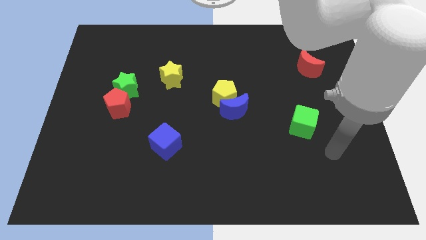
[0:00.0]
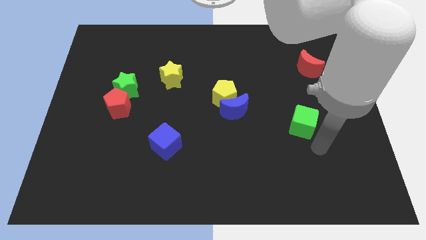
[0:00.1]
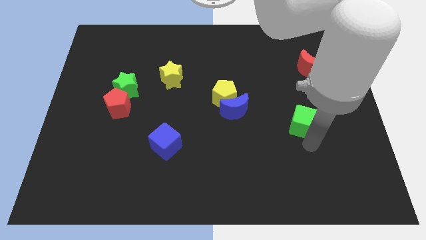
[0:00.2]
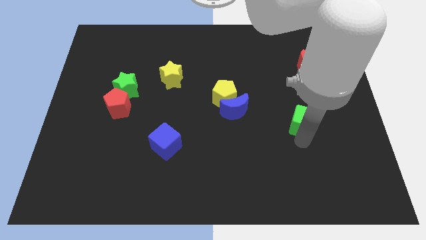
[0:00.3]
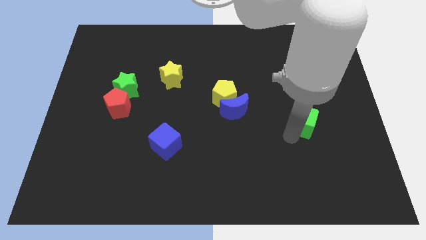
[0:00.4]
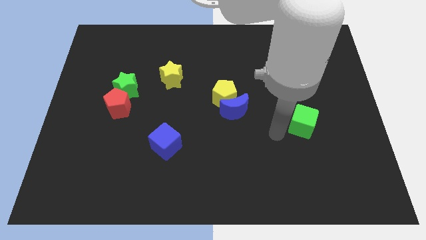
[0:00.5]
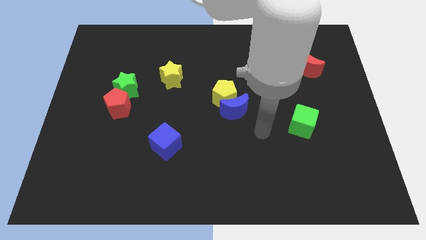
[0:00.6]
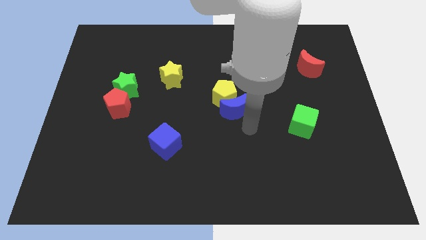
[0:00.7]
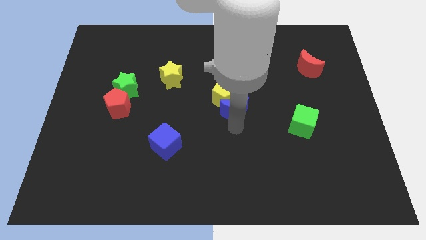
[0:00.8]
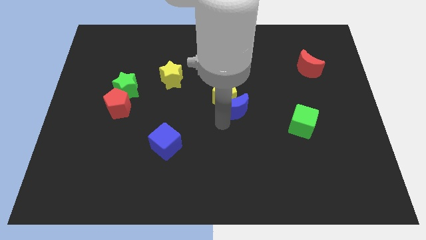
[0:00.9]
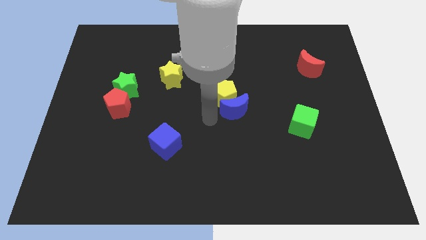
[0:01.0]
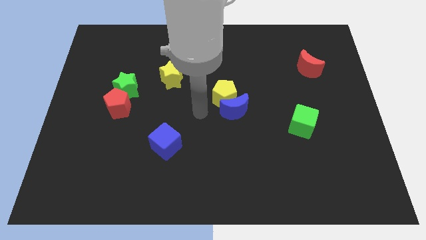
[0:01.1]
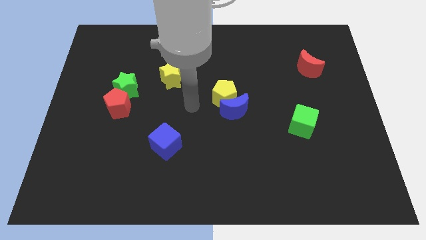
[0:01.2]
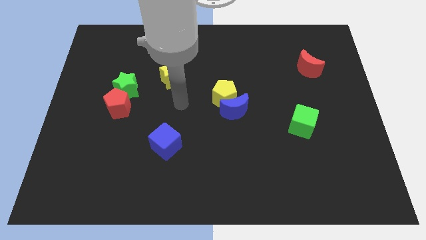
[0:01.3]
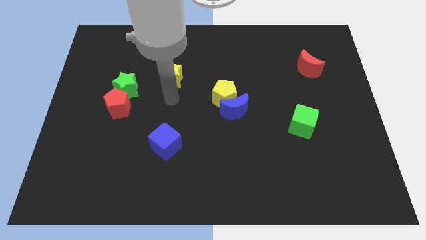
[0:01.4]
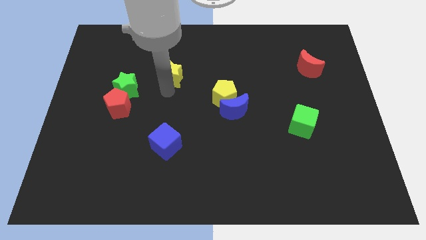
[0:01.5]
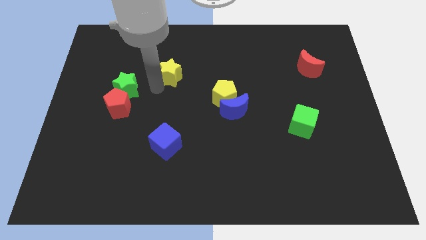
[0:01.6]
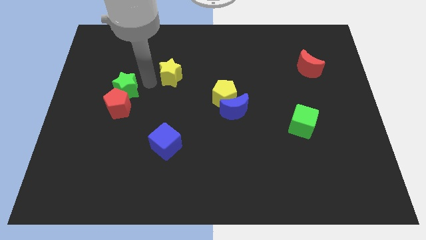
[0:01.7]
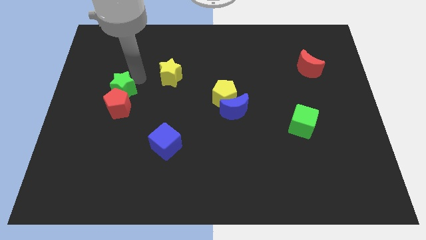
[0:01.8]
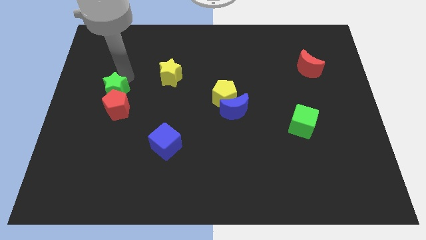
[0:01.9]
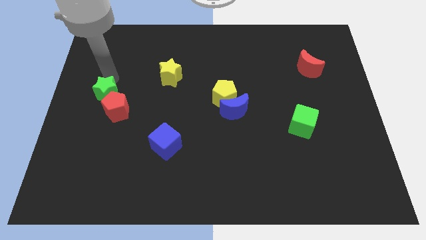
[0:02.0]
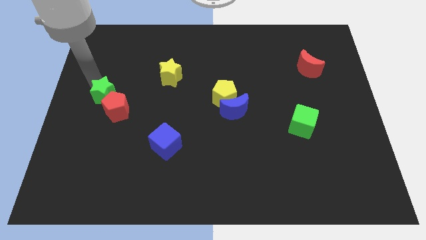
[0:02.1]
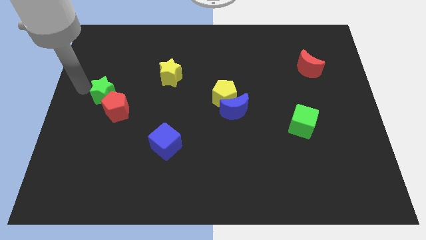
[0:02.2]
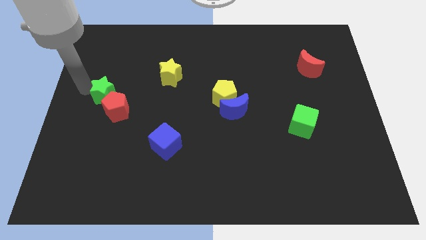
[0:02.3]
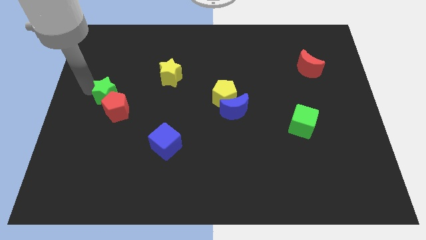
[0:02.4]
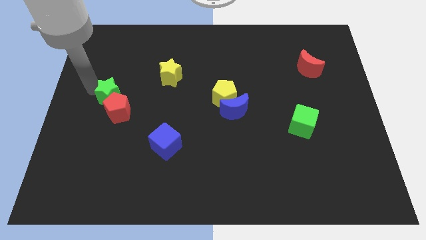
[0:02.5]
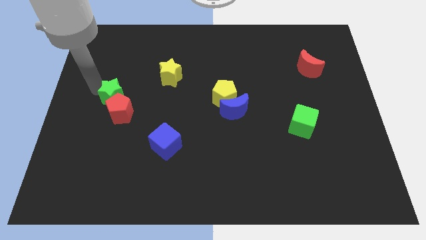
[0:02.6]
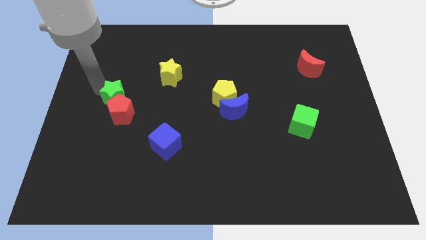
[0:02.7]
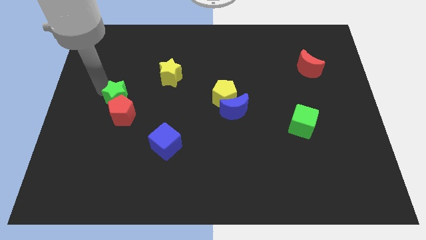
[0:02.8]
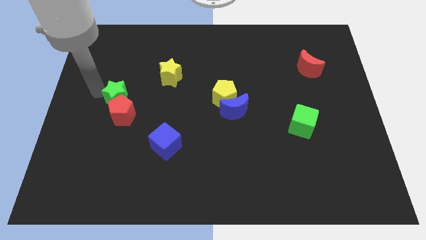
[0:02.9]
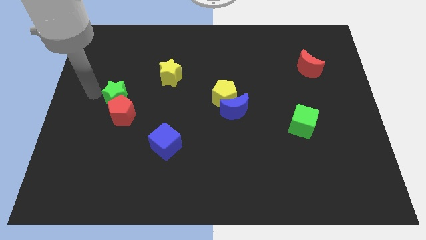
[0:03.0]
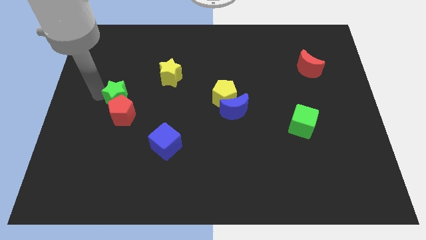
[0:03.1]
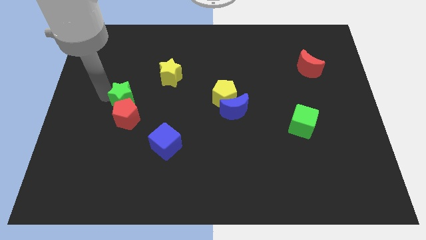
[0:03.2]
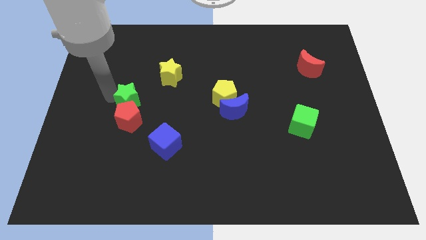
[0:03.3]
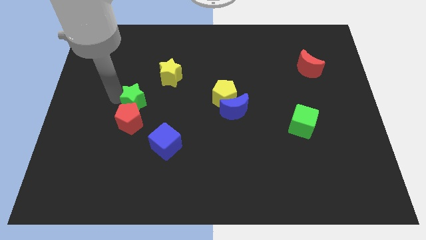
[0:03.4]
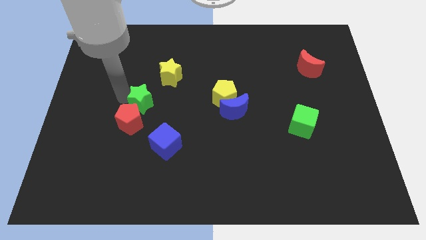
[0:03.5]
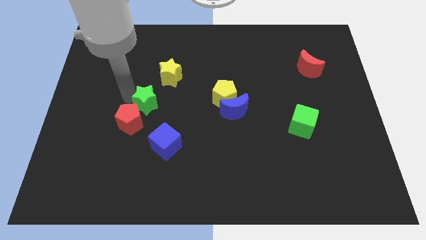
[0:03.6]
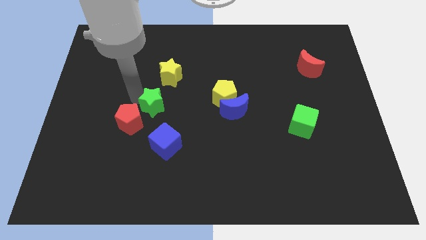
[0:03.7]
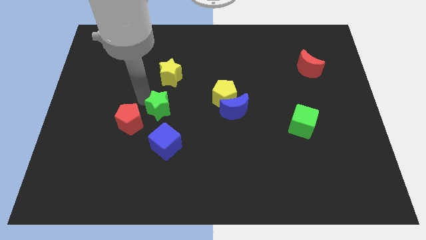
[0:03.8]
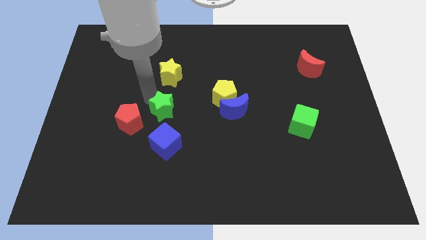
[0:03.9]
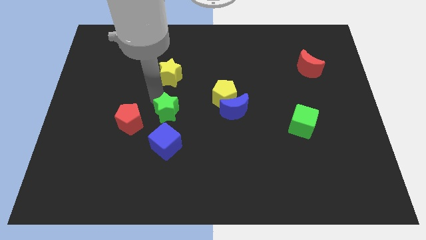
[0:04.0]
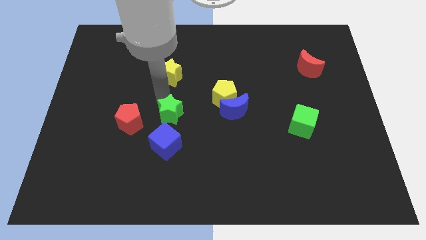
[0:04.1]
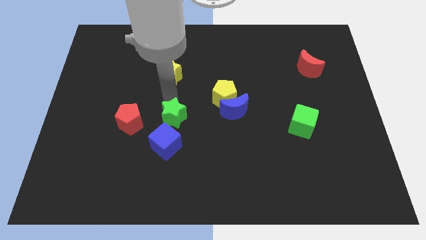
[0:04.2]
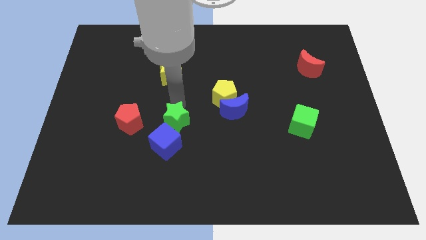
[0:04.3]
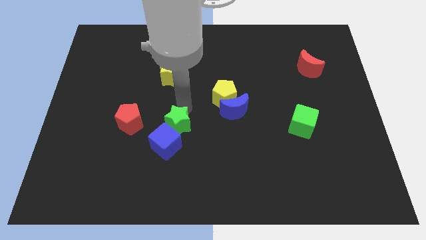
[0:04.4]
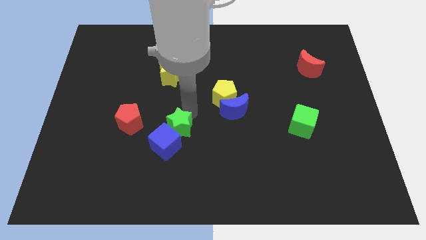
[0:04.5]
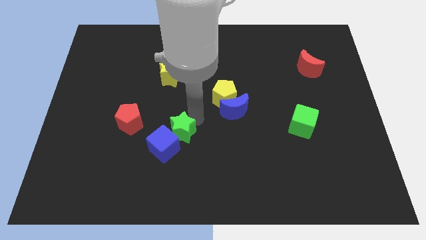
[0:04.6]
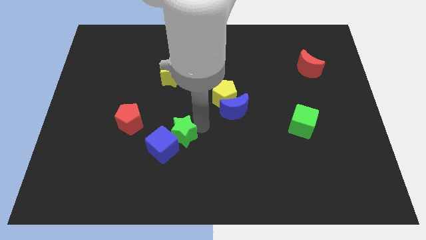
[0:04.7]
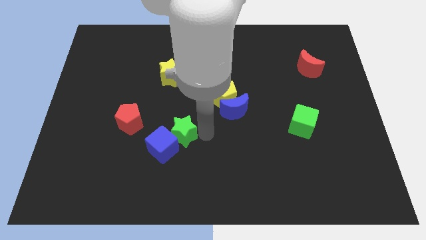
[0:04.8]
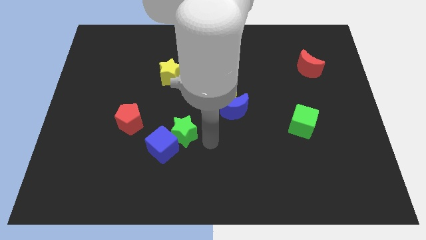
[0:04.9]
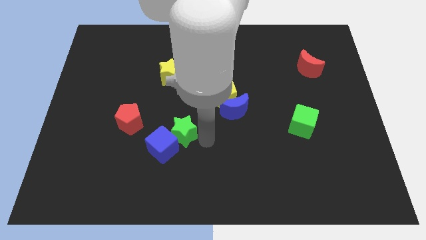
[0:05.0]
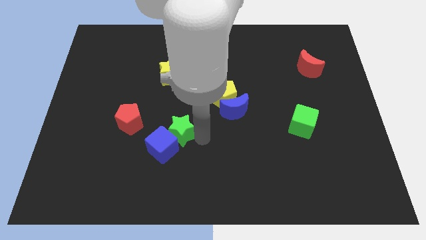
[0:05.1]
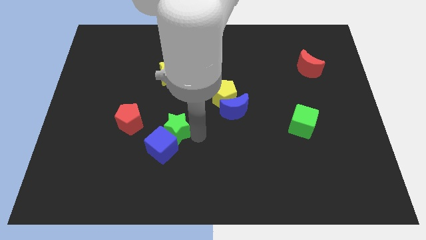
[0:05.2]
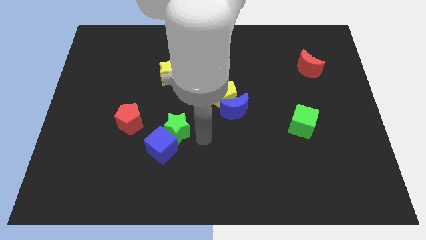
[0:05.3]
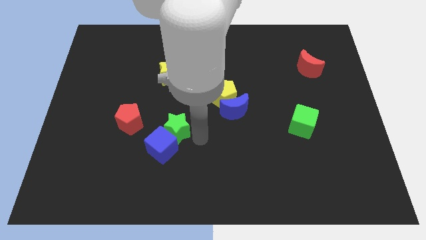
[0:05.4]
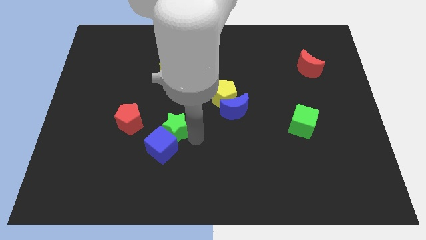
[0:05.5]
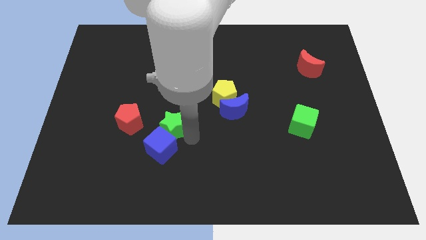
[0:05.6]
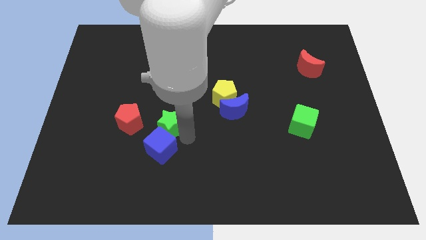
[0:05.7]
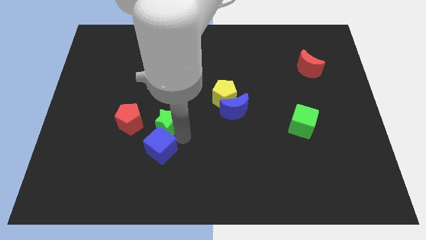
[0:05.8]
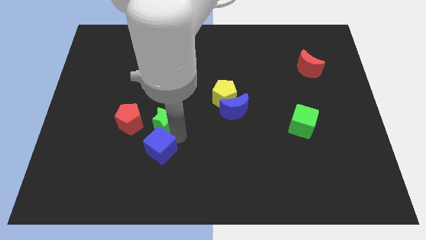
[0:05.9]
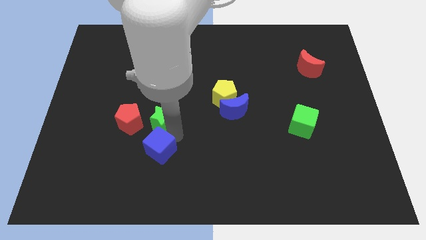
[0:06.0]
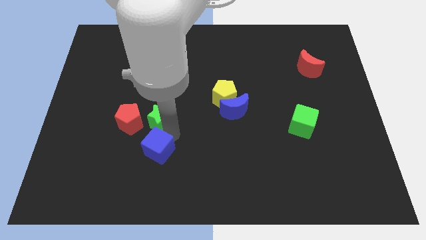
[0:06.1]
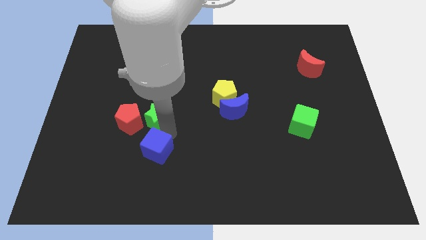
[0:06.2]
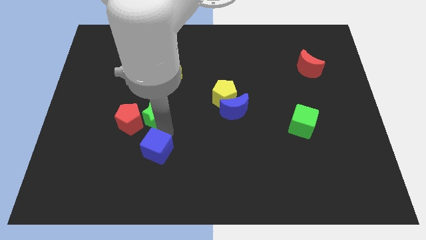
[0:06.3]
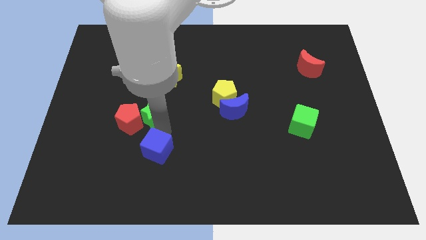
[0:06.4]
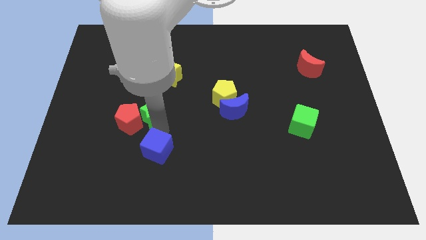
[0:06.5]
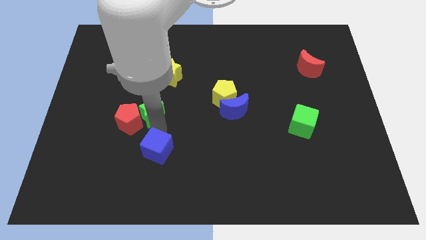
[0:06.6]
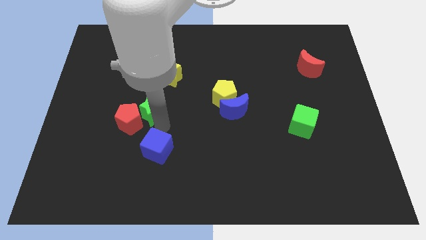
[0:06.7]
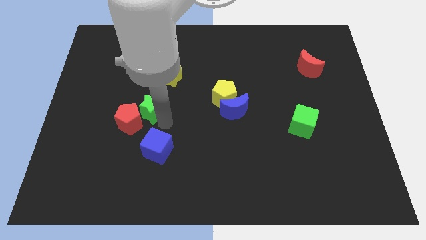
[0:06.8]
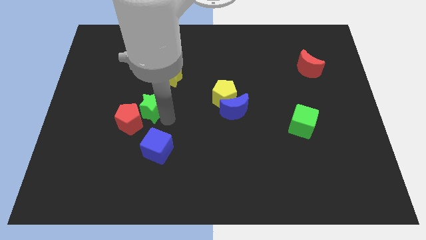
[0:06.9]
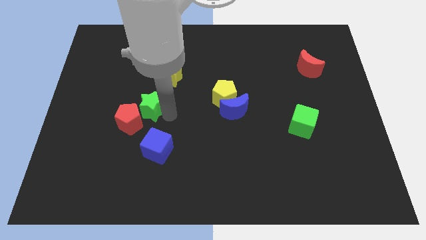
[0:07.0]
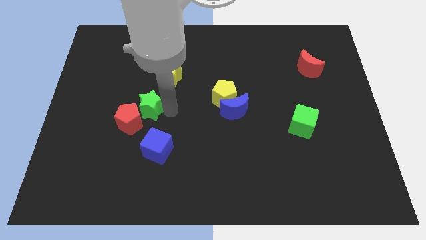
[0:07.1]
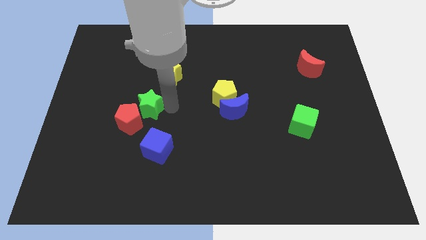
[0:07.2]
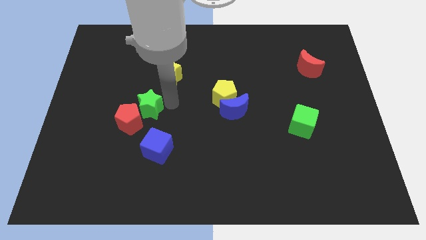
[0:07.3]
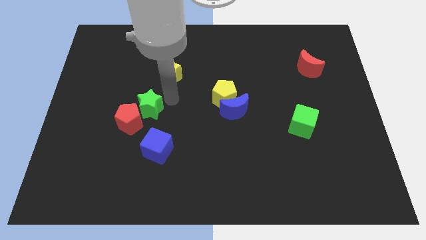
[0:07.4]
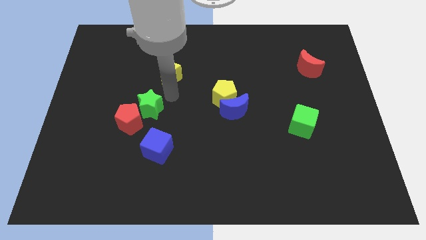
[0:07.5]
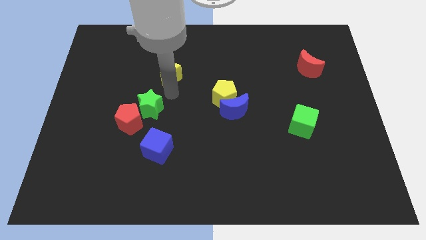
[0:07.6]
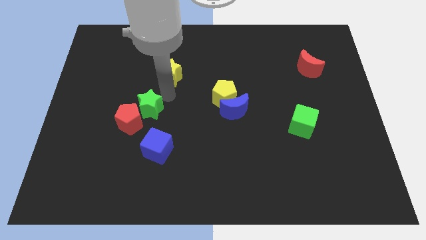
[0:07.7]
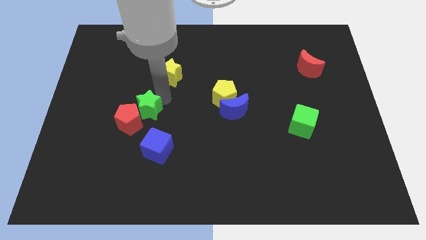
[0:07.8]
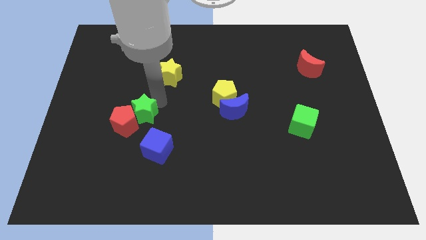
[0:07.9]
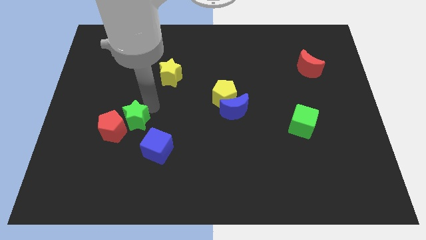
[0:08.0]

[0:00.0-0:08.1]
move the green star a little downwards

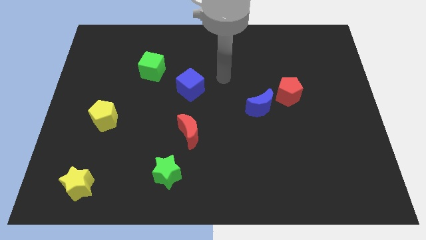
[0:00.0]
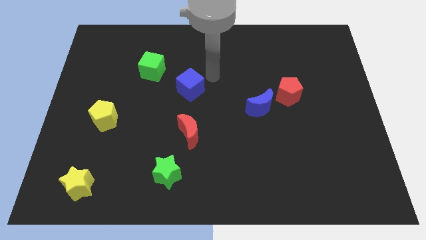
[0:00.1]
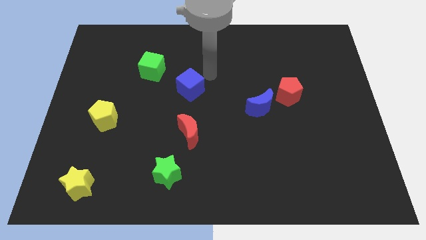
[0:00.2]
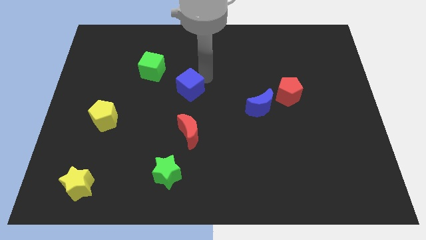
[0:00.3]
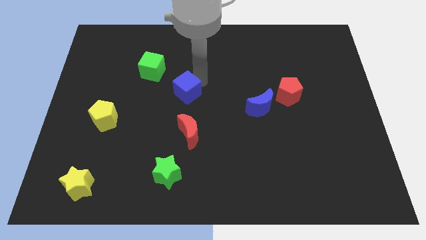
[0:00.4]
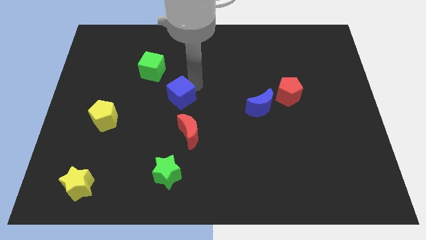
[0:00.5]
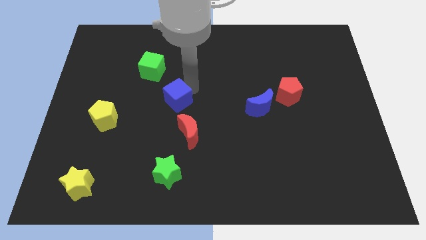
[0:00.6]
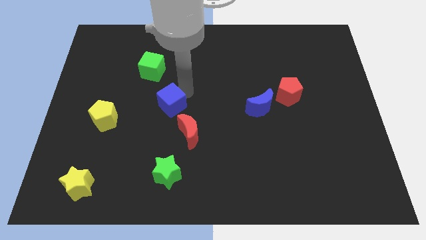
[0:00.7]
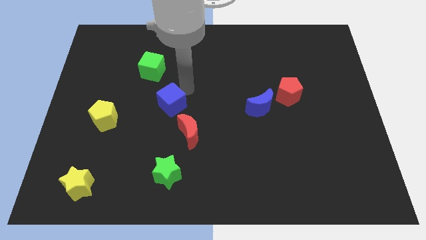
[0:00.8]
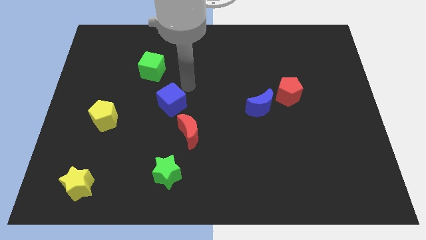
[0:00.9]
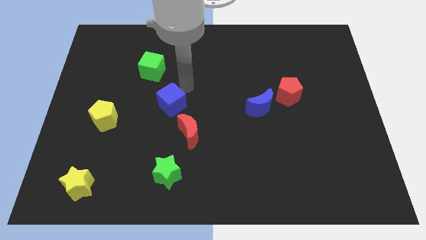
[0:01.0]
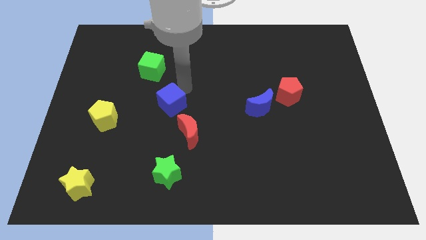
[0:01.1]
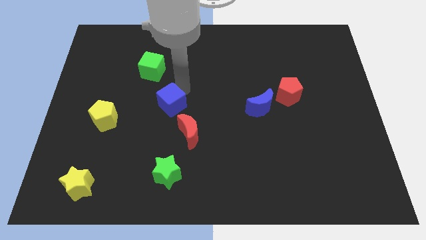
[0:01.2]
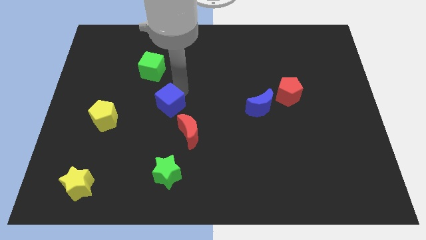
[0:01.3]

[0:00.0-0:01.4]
move the blue cube down and to the left somewhat
